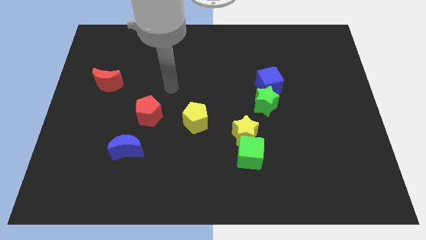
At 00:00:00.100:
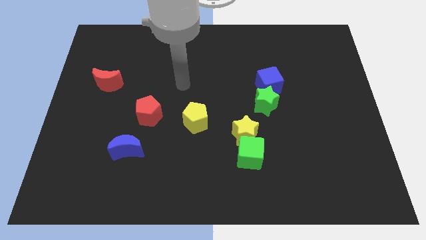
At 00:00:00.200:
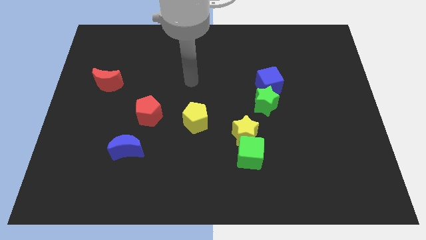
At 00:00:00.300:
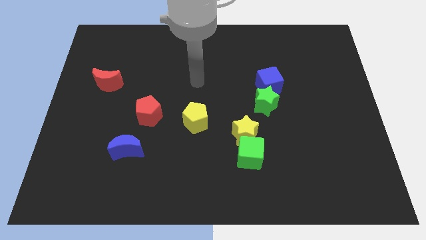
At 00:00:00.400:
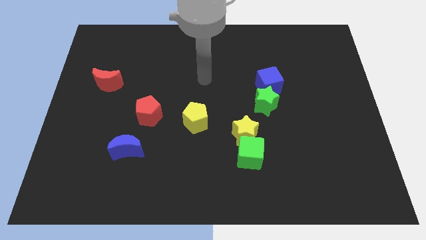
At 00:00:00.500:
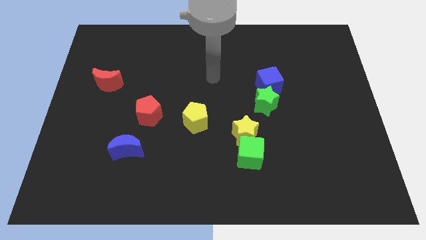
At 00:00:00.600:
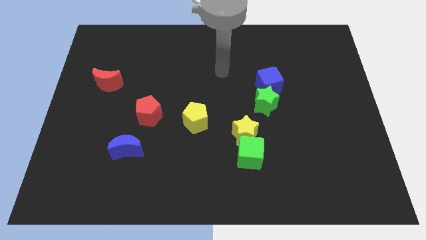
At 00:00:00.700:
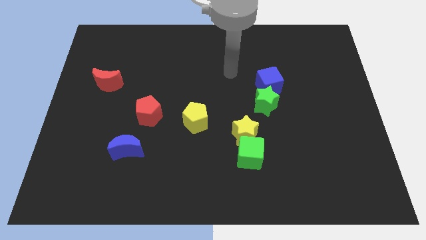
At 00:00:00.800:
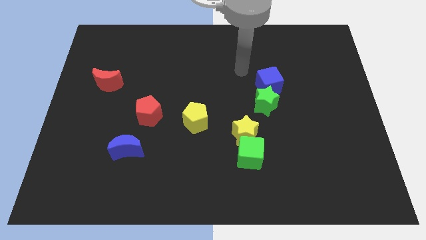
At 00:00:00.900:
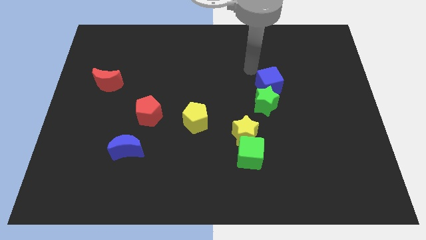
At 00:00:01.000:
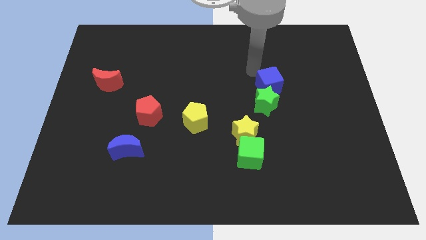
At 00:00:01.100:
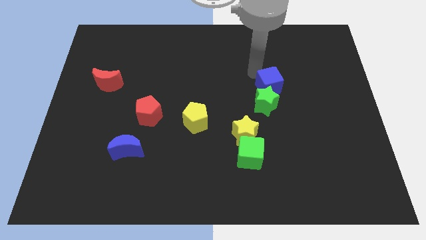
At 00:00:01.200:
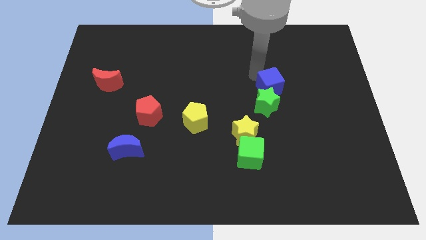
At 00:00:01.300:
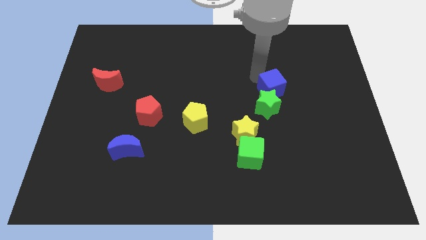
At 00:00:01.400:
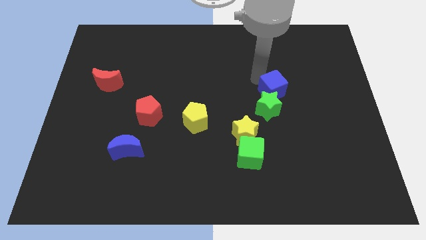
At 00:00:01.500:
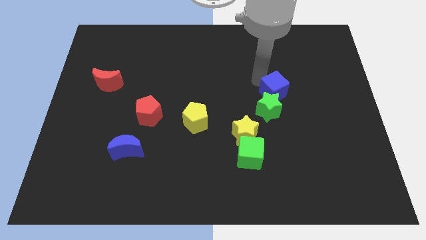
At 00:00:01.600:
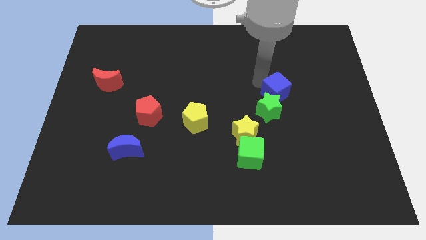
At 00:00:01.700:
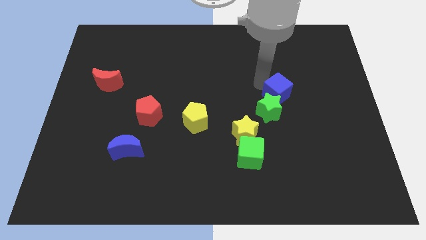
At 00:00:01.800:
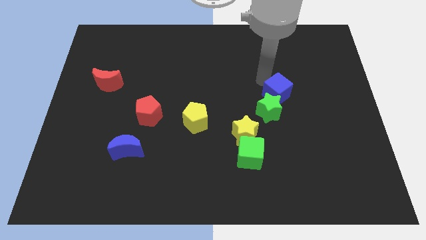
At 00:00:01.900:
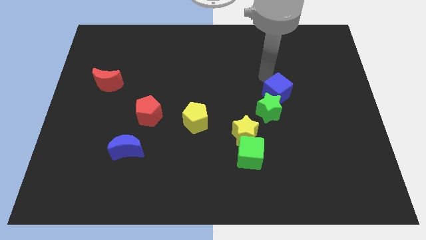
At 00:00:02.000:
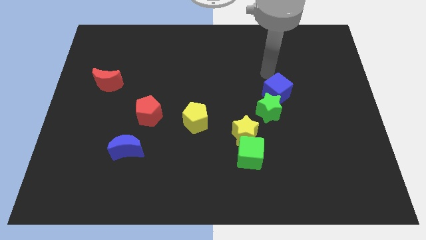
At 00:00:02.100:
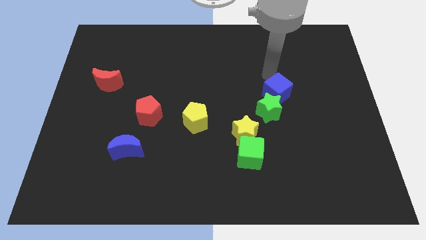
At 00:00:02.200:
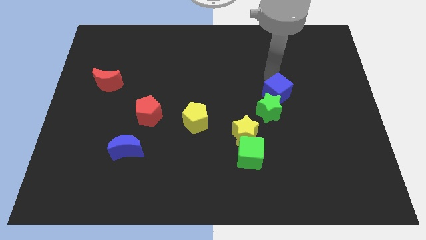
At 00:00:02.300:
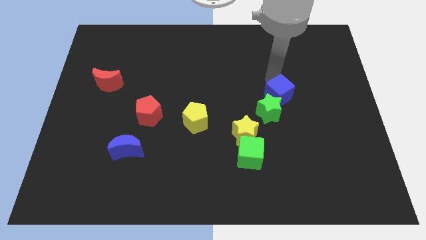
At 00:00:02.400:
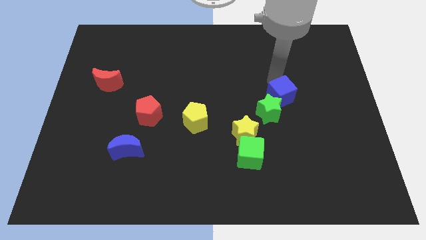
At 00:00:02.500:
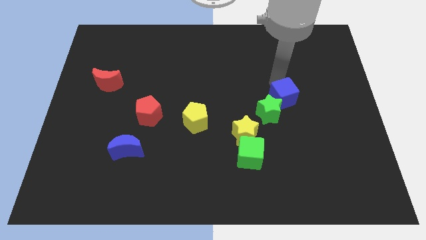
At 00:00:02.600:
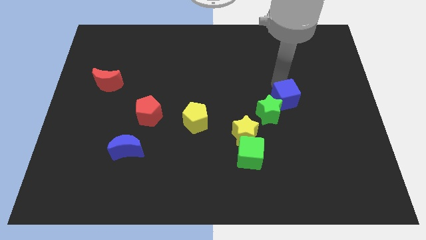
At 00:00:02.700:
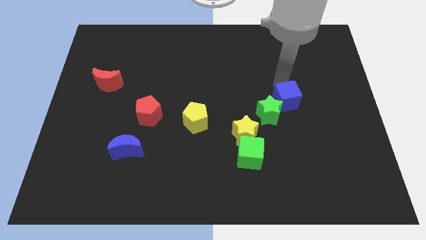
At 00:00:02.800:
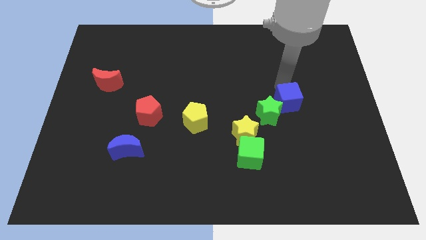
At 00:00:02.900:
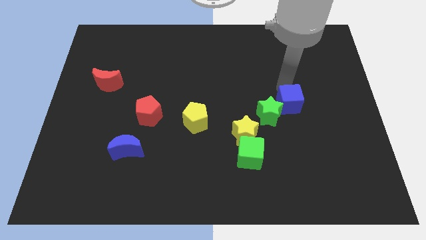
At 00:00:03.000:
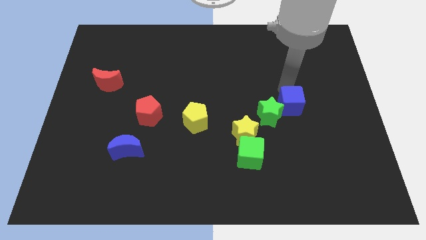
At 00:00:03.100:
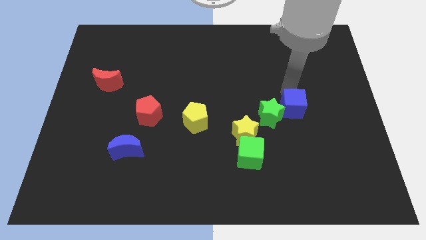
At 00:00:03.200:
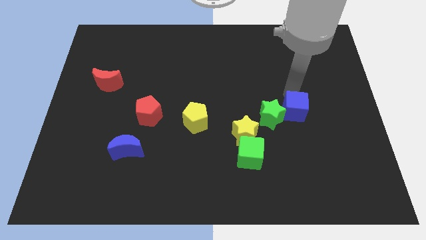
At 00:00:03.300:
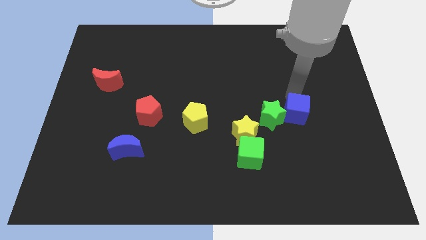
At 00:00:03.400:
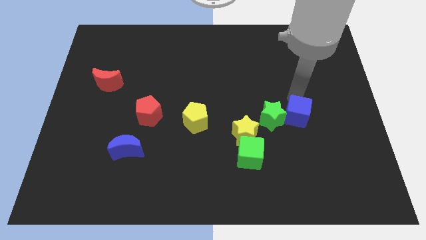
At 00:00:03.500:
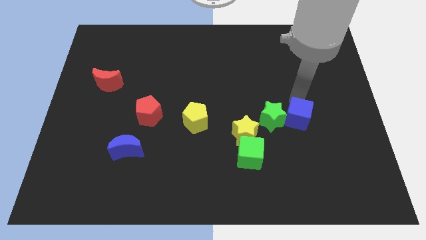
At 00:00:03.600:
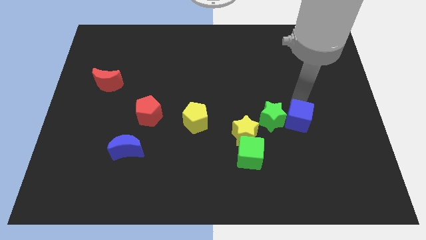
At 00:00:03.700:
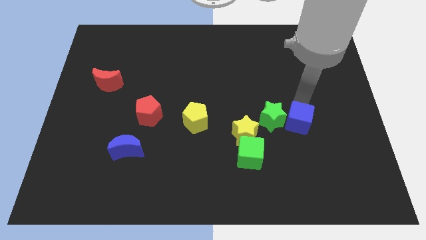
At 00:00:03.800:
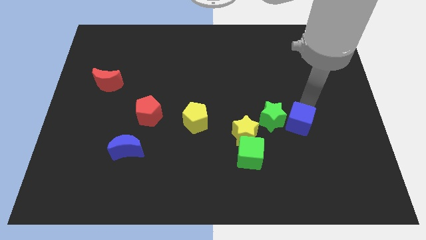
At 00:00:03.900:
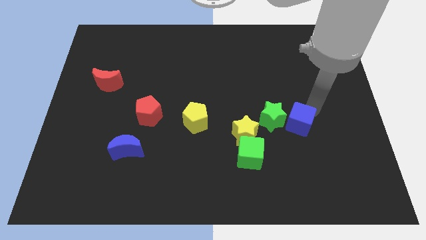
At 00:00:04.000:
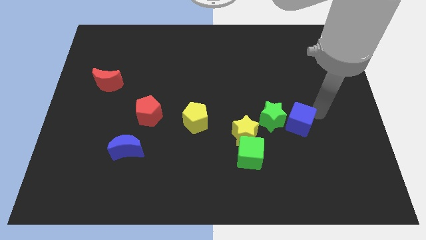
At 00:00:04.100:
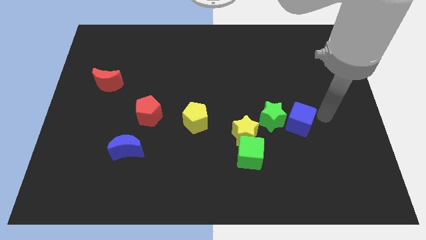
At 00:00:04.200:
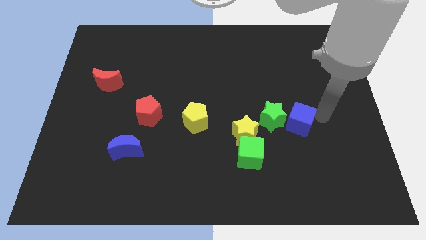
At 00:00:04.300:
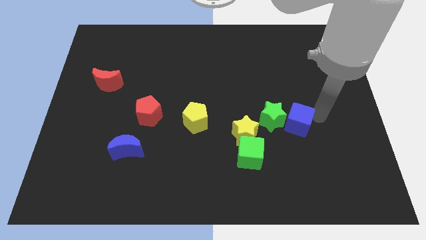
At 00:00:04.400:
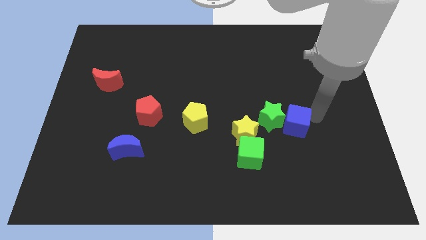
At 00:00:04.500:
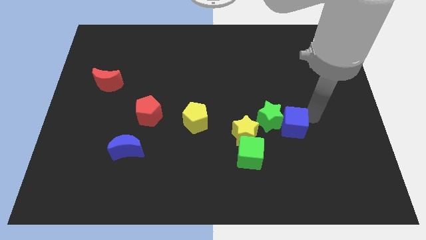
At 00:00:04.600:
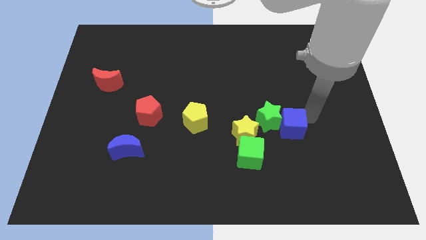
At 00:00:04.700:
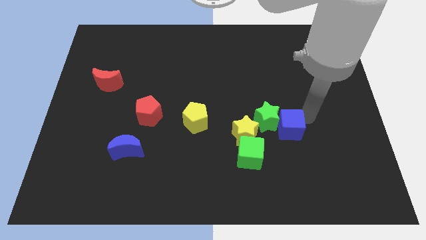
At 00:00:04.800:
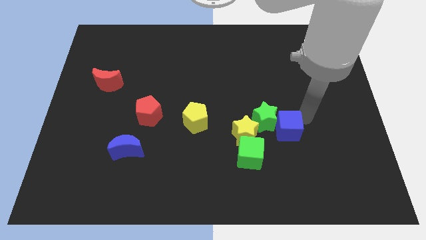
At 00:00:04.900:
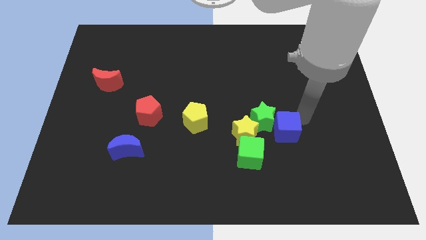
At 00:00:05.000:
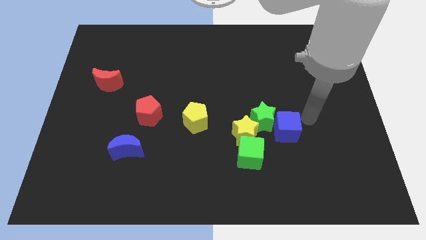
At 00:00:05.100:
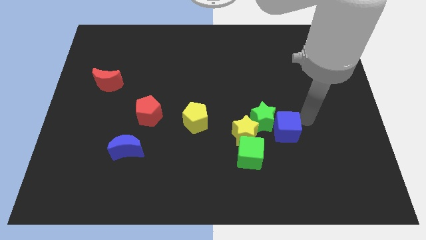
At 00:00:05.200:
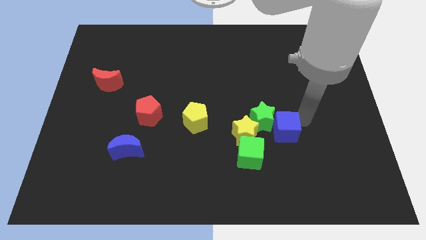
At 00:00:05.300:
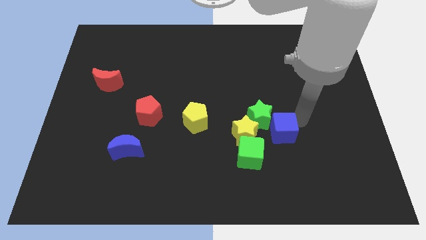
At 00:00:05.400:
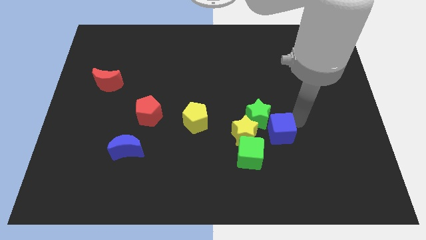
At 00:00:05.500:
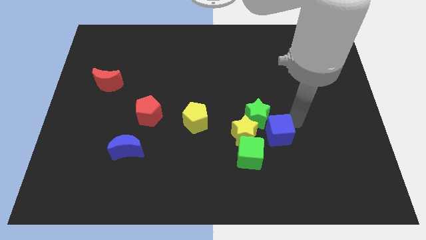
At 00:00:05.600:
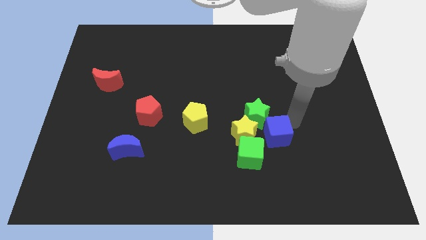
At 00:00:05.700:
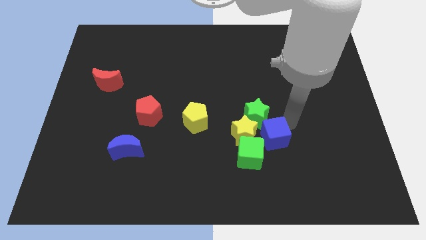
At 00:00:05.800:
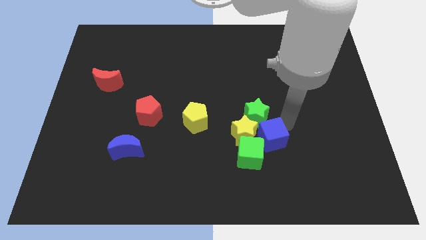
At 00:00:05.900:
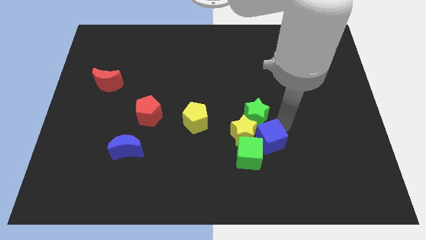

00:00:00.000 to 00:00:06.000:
move the blue cube to the green cube

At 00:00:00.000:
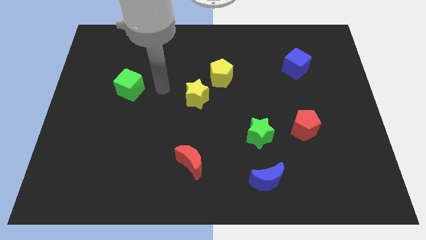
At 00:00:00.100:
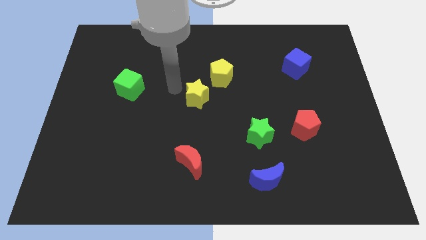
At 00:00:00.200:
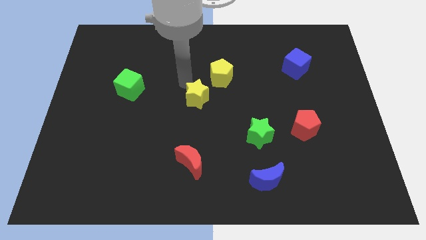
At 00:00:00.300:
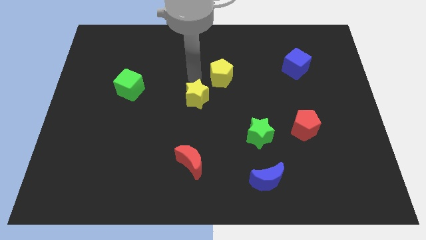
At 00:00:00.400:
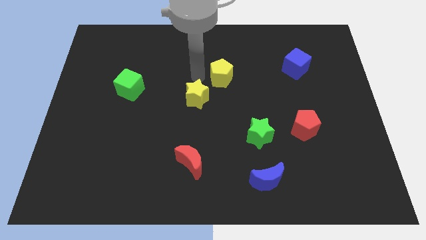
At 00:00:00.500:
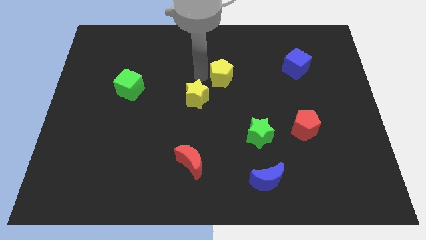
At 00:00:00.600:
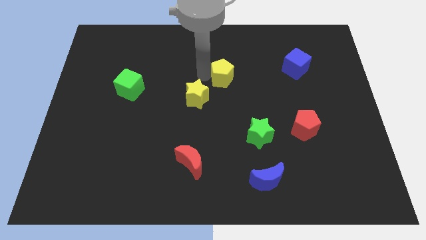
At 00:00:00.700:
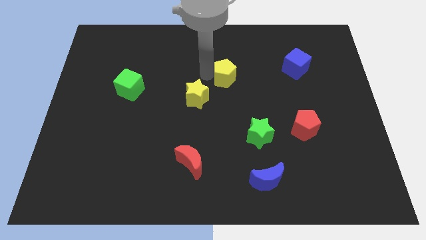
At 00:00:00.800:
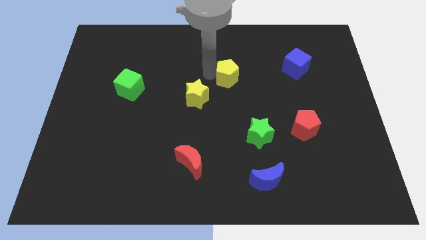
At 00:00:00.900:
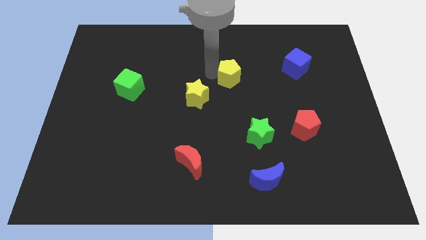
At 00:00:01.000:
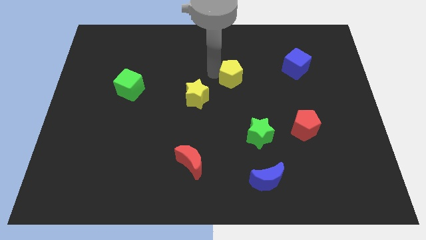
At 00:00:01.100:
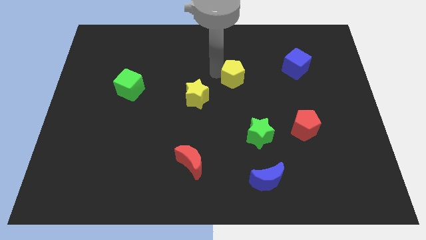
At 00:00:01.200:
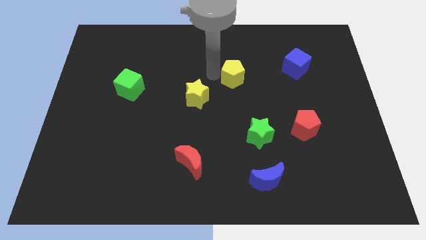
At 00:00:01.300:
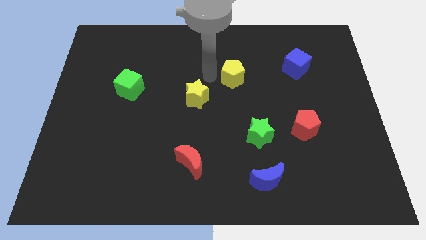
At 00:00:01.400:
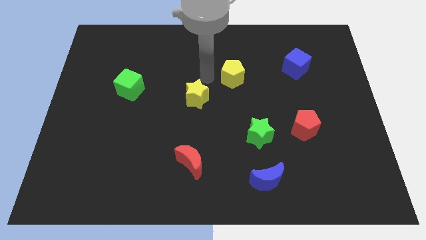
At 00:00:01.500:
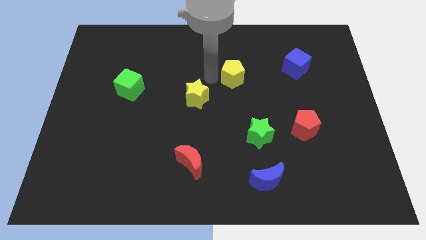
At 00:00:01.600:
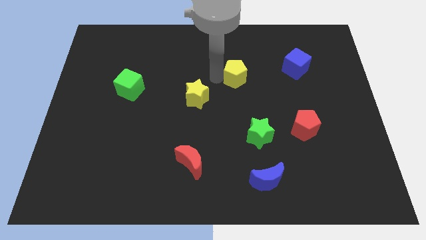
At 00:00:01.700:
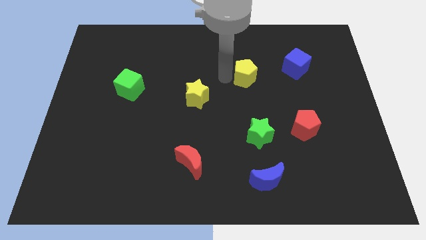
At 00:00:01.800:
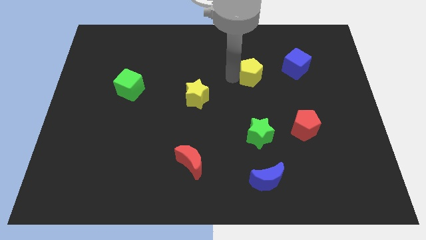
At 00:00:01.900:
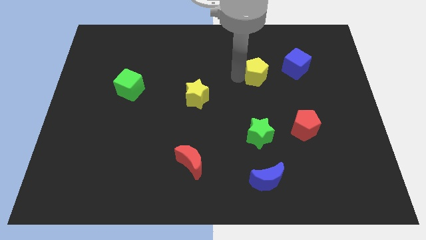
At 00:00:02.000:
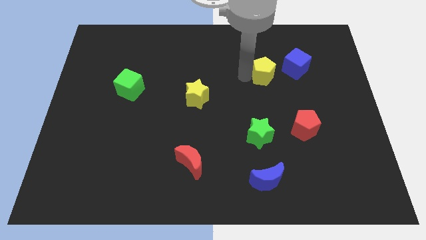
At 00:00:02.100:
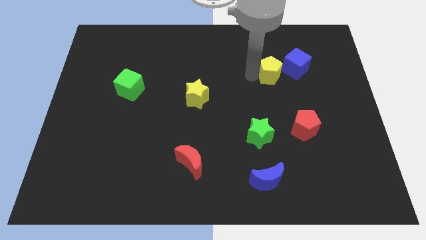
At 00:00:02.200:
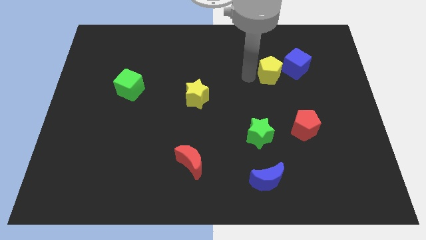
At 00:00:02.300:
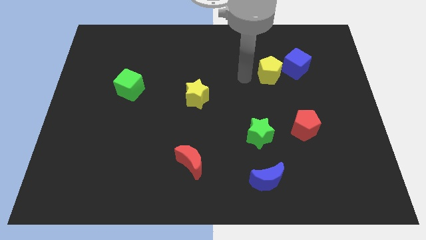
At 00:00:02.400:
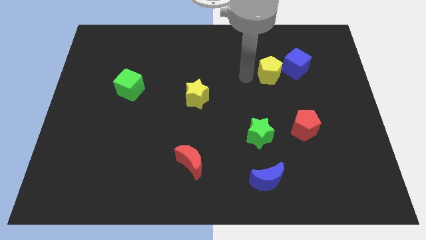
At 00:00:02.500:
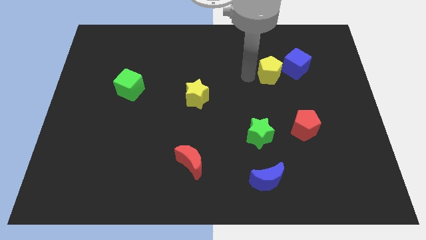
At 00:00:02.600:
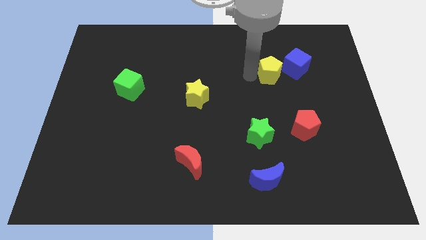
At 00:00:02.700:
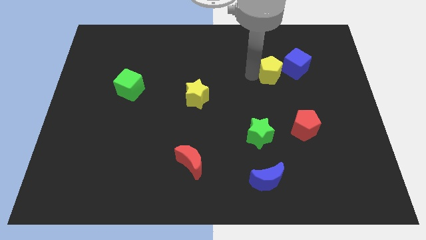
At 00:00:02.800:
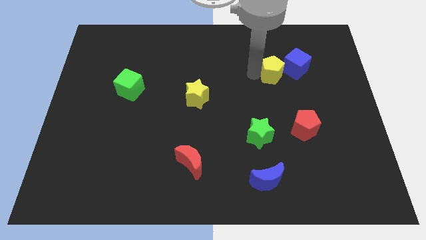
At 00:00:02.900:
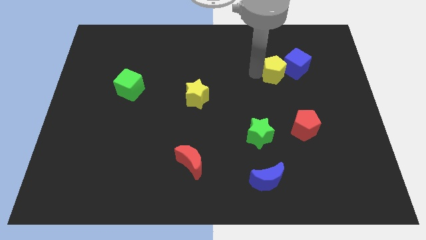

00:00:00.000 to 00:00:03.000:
move the yellow pentagon towards the blue cube
